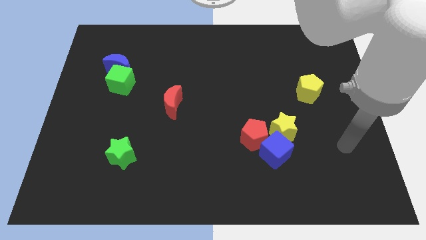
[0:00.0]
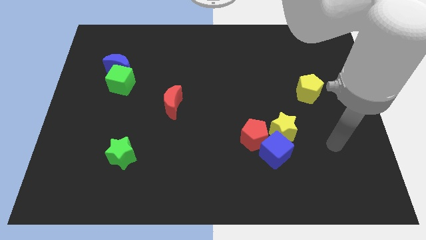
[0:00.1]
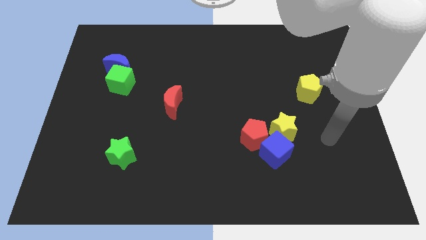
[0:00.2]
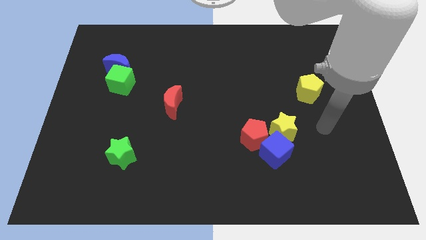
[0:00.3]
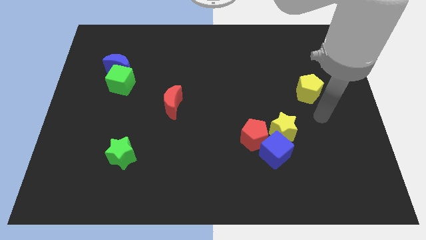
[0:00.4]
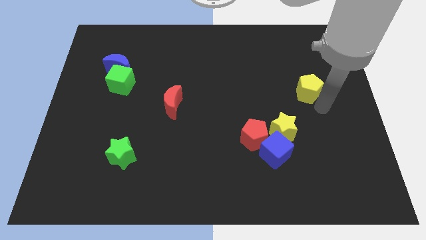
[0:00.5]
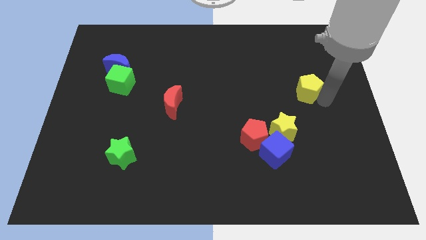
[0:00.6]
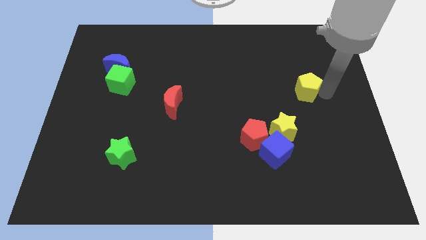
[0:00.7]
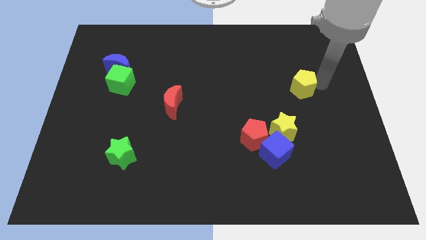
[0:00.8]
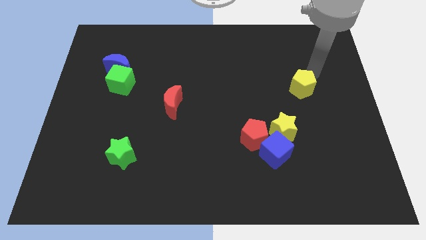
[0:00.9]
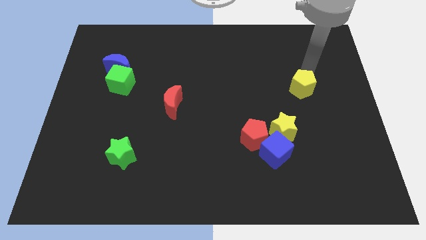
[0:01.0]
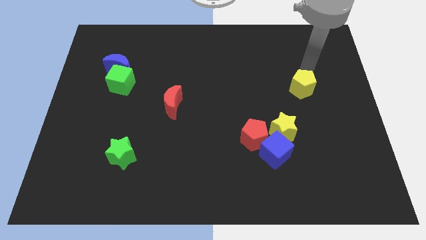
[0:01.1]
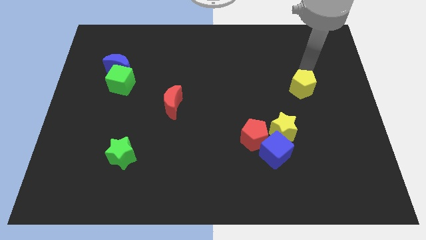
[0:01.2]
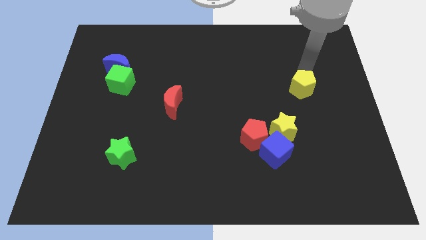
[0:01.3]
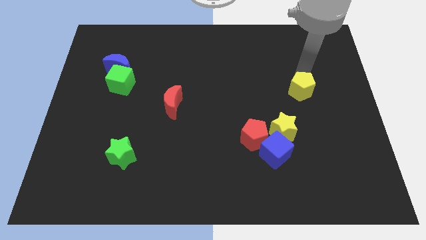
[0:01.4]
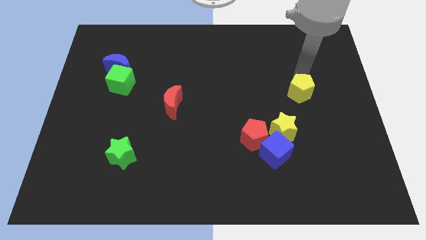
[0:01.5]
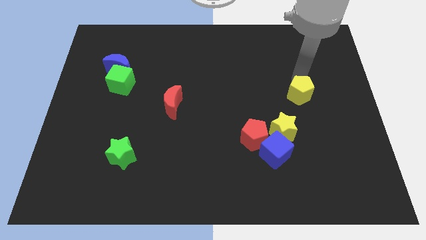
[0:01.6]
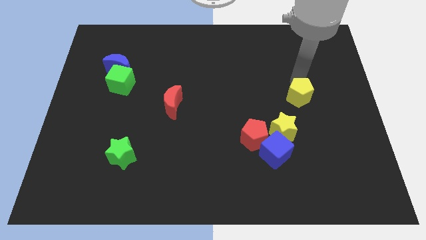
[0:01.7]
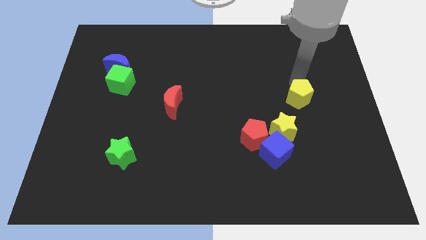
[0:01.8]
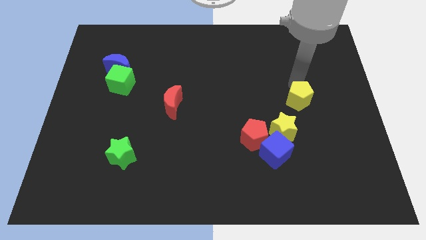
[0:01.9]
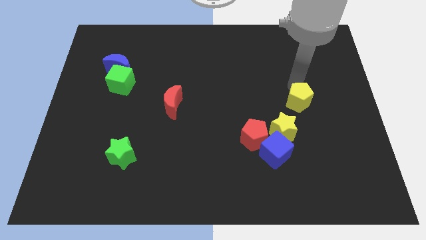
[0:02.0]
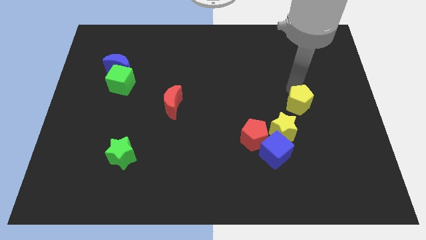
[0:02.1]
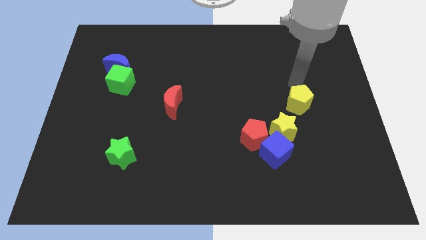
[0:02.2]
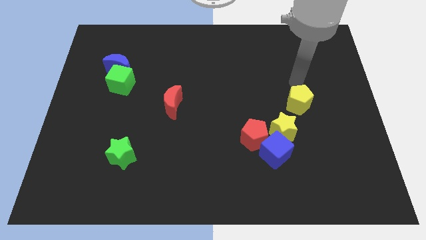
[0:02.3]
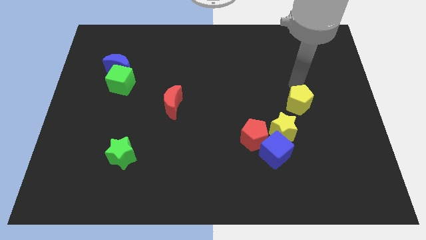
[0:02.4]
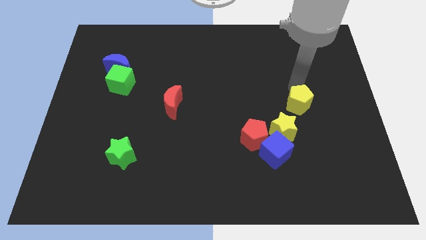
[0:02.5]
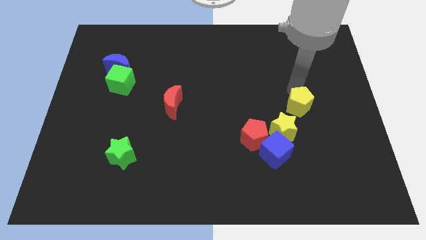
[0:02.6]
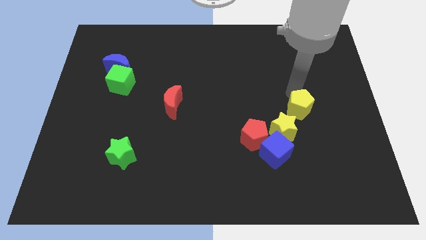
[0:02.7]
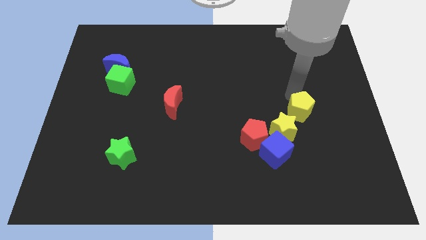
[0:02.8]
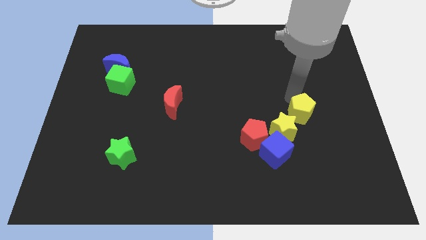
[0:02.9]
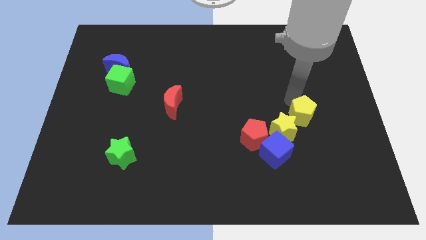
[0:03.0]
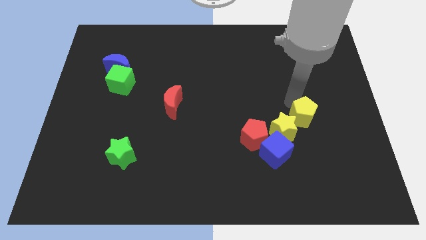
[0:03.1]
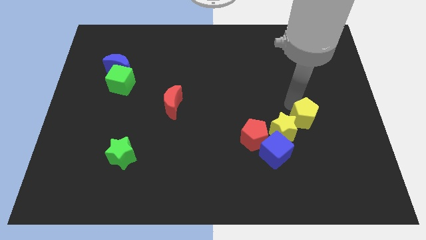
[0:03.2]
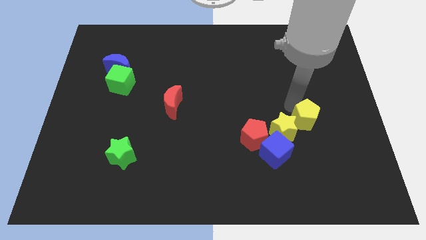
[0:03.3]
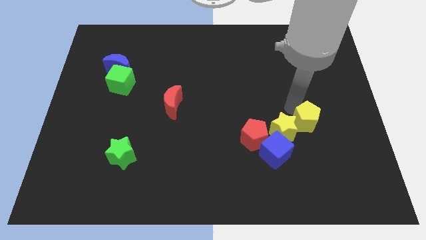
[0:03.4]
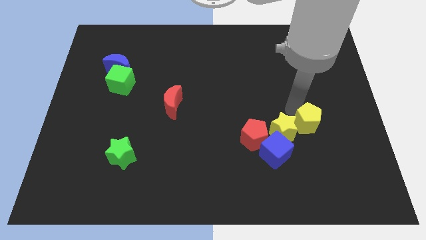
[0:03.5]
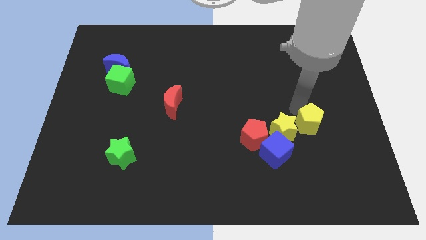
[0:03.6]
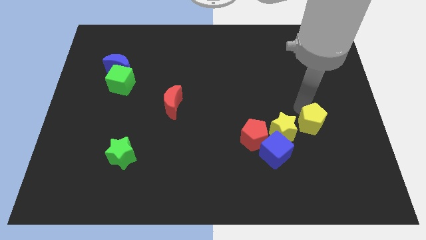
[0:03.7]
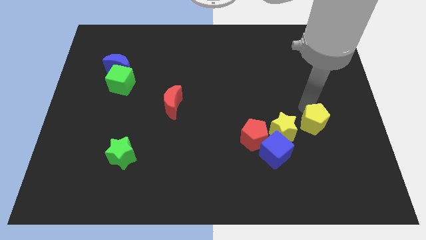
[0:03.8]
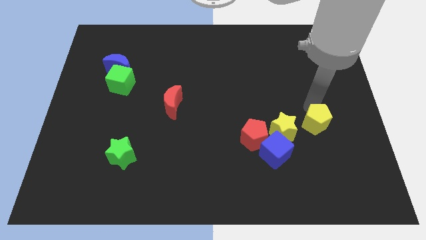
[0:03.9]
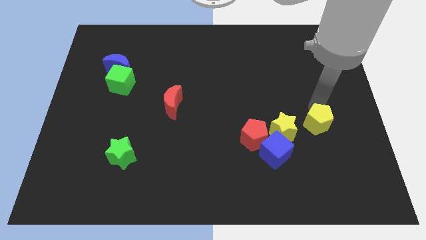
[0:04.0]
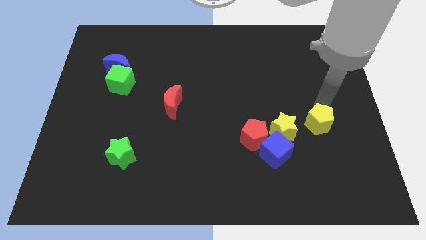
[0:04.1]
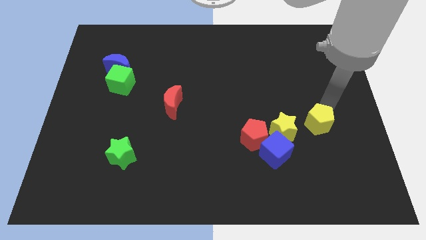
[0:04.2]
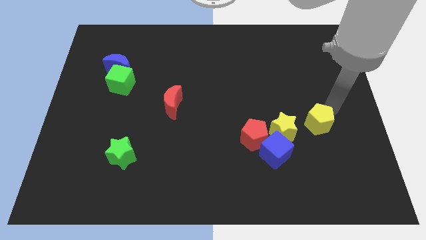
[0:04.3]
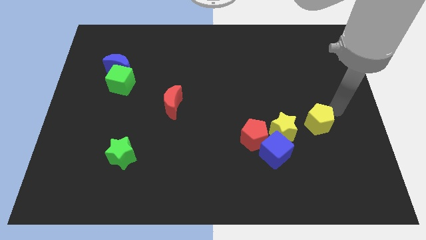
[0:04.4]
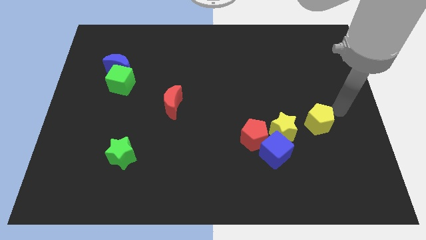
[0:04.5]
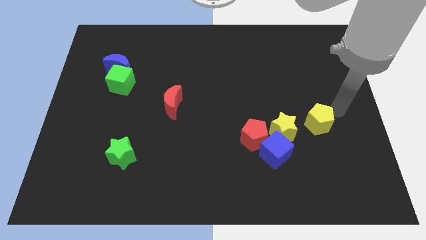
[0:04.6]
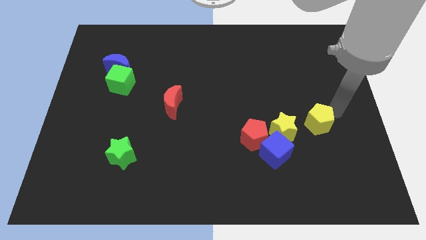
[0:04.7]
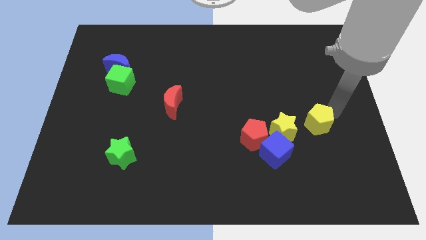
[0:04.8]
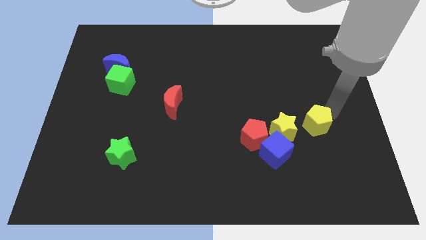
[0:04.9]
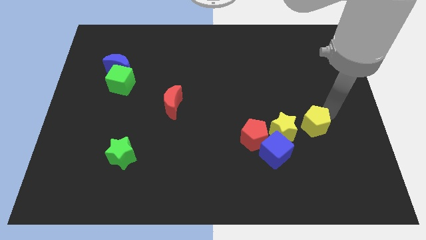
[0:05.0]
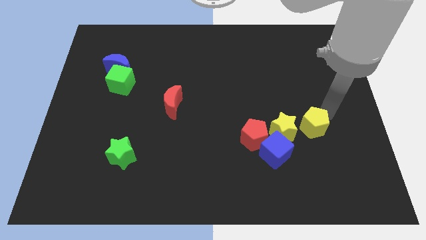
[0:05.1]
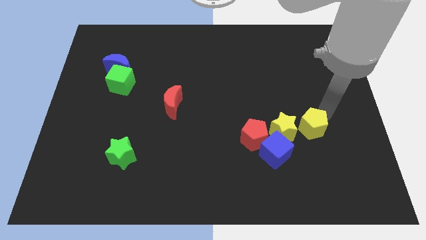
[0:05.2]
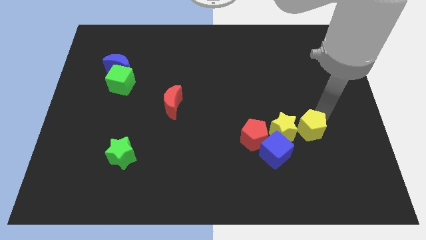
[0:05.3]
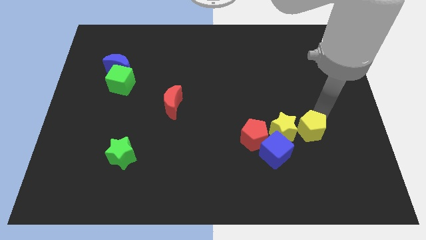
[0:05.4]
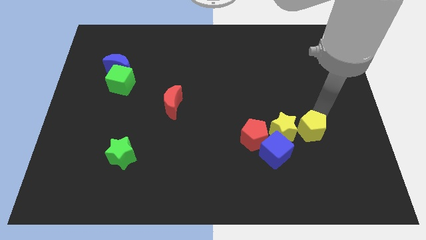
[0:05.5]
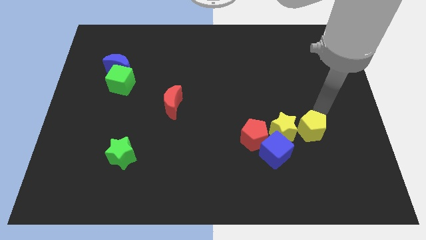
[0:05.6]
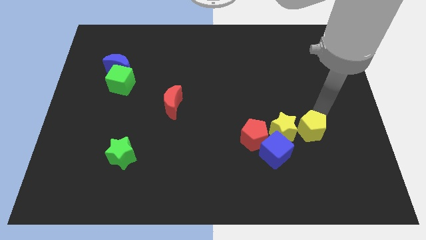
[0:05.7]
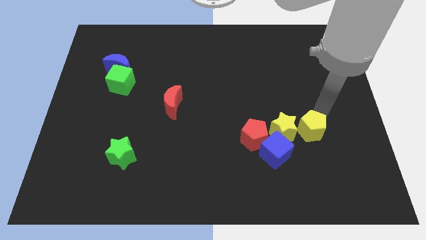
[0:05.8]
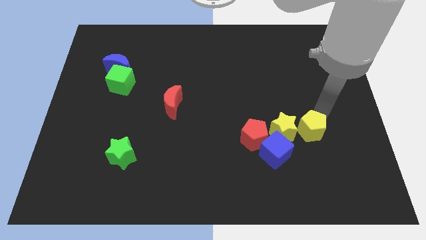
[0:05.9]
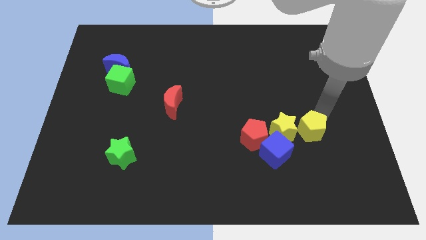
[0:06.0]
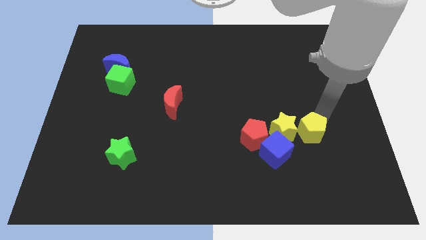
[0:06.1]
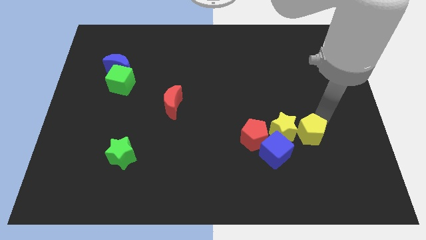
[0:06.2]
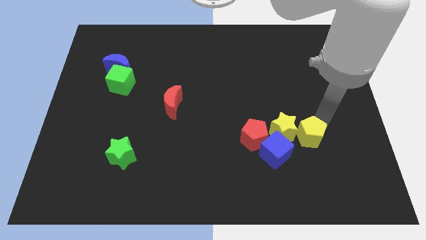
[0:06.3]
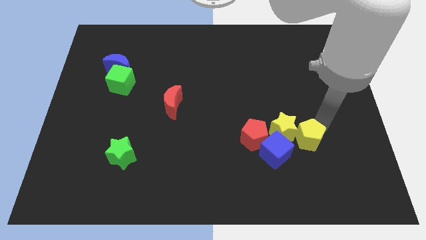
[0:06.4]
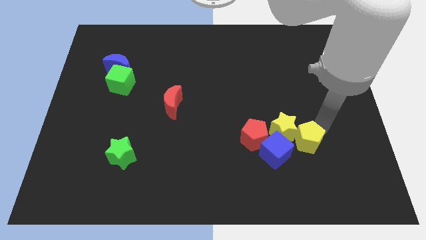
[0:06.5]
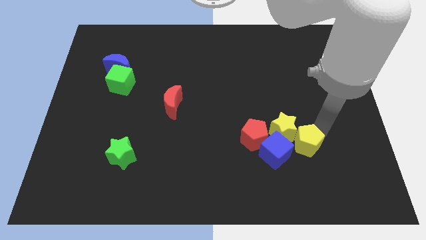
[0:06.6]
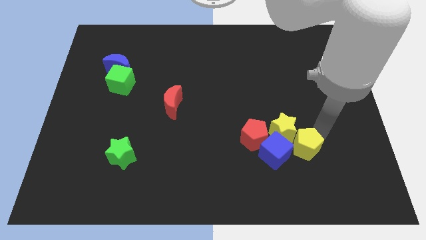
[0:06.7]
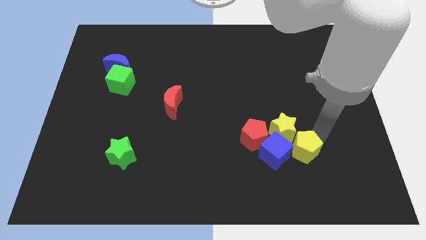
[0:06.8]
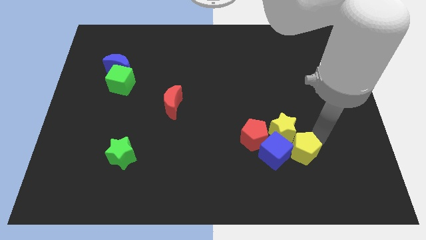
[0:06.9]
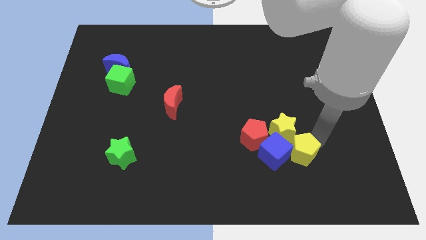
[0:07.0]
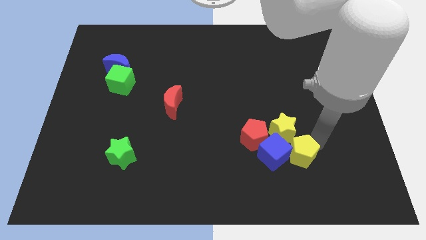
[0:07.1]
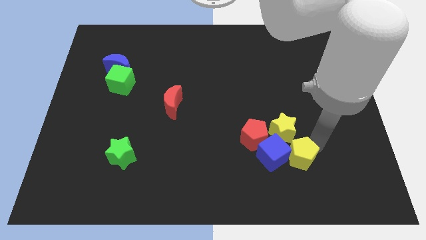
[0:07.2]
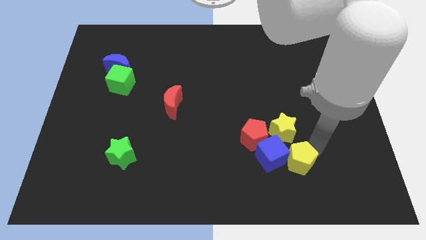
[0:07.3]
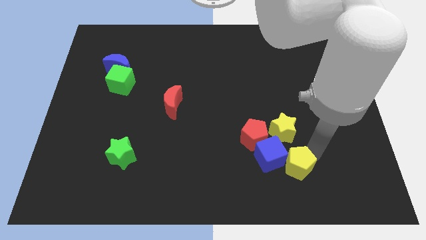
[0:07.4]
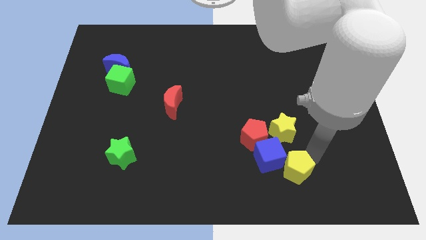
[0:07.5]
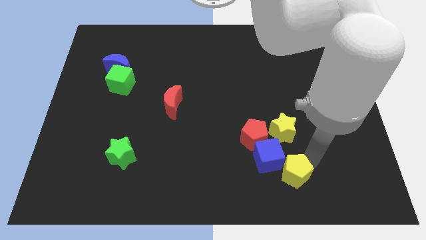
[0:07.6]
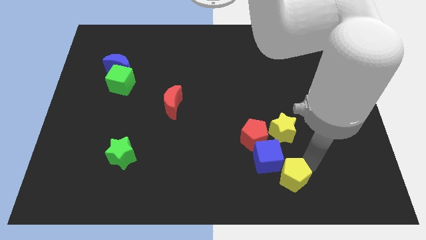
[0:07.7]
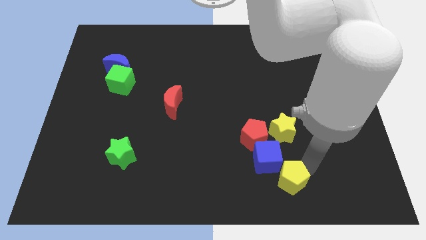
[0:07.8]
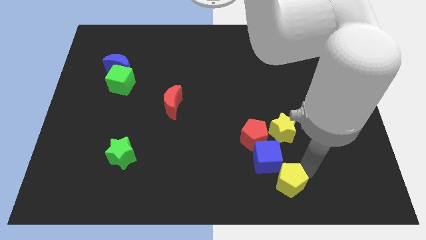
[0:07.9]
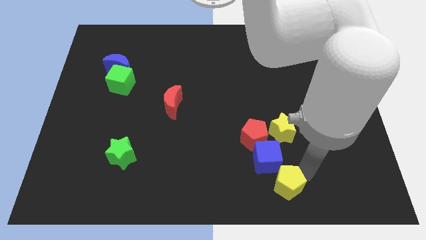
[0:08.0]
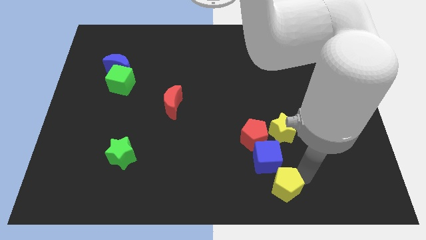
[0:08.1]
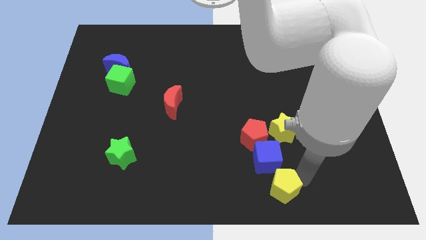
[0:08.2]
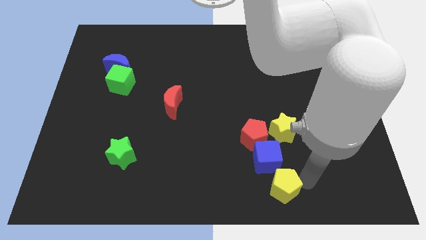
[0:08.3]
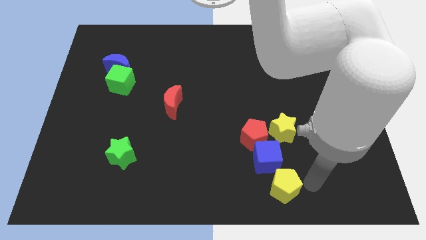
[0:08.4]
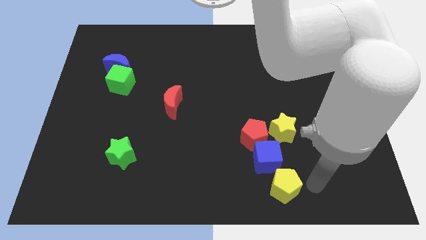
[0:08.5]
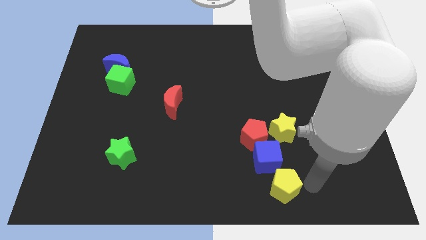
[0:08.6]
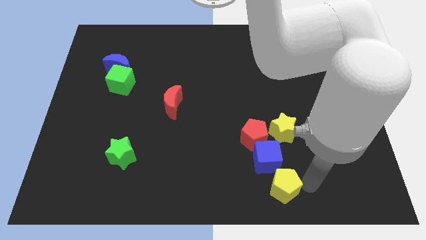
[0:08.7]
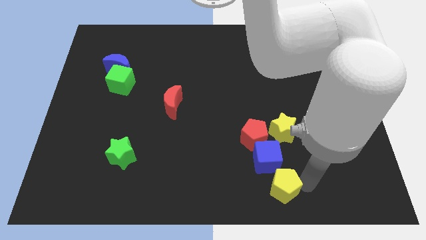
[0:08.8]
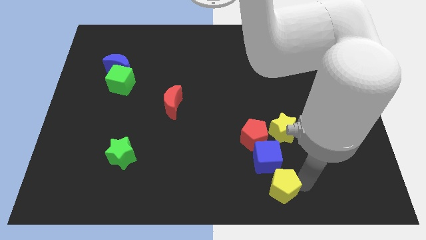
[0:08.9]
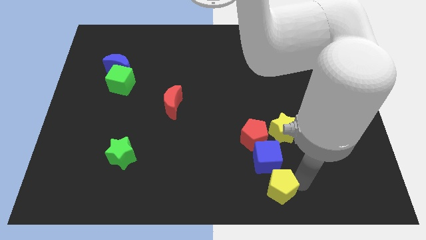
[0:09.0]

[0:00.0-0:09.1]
put the yellow pentagon to the bottom side
